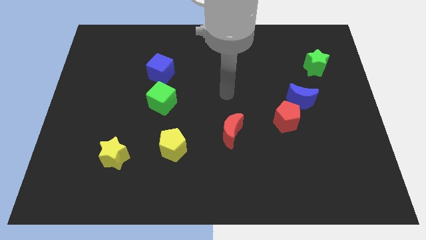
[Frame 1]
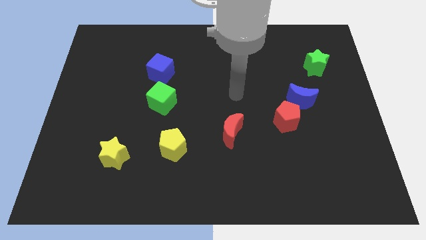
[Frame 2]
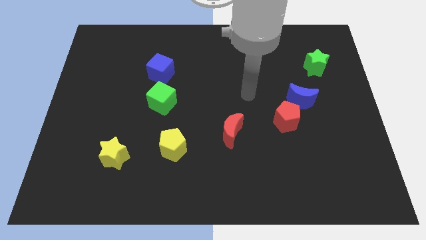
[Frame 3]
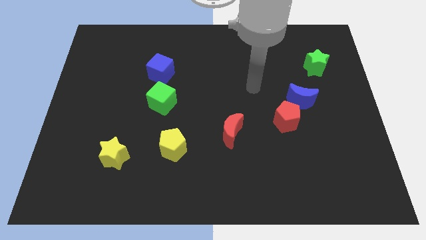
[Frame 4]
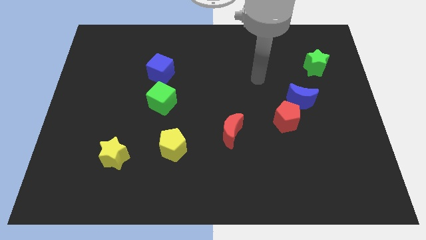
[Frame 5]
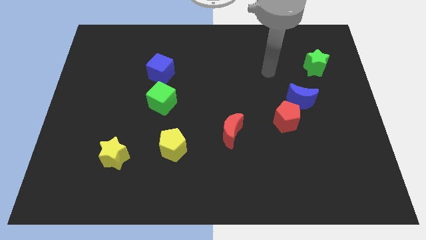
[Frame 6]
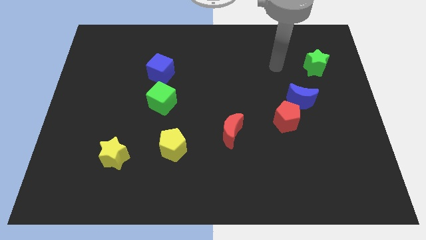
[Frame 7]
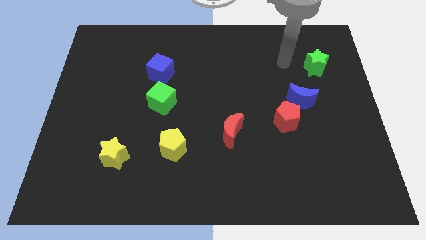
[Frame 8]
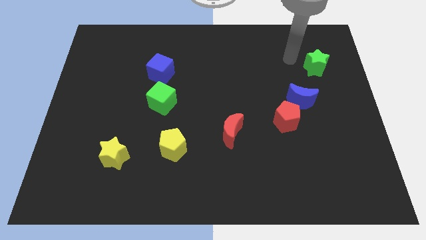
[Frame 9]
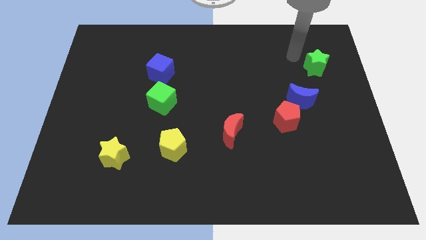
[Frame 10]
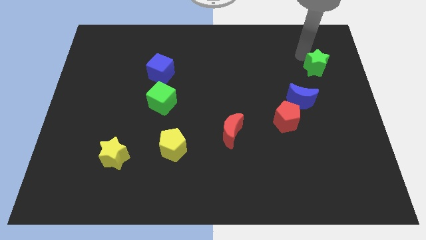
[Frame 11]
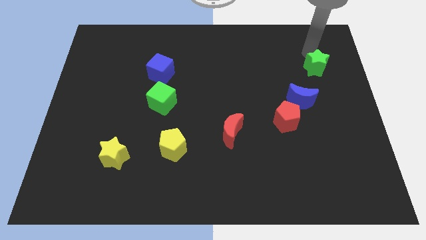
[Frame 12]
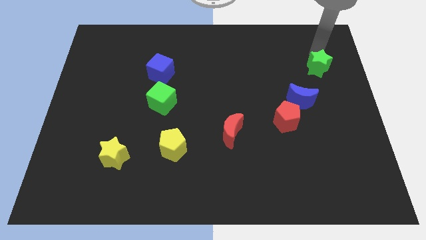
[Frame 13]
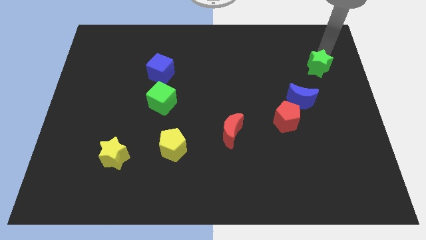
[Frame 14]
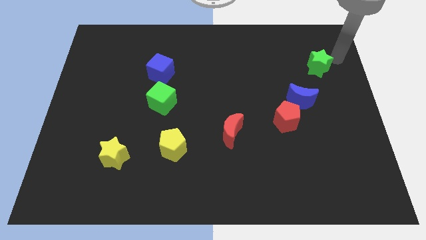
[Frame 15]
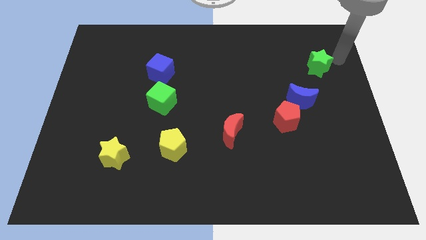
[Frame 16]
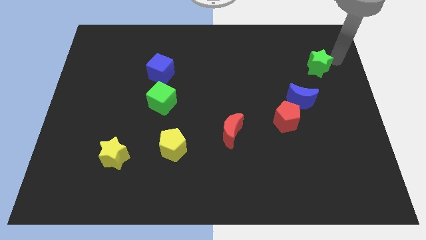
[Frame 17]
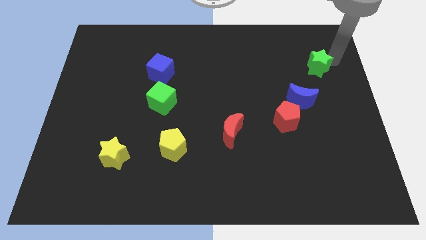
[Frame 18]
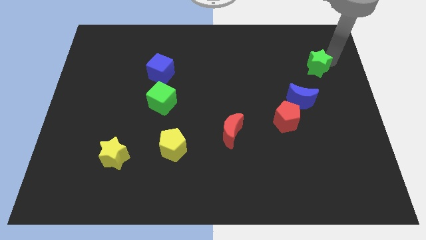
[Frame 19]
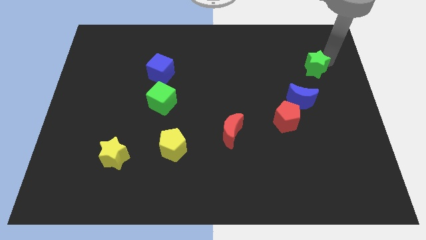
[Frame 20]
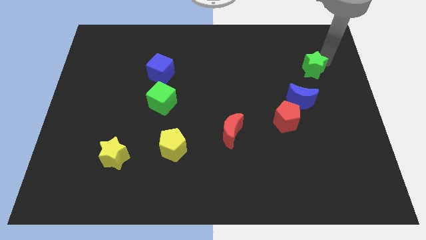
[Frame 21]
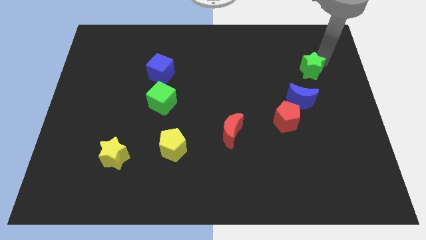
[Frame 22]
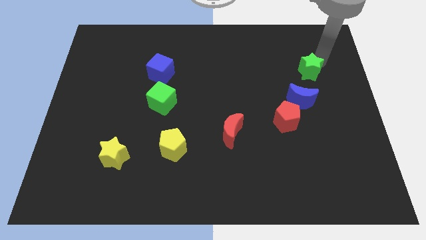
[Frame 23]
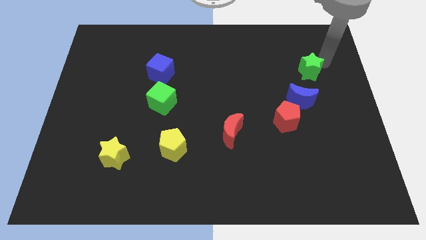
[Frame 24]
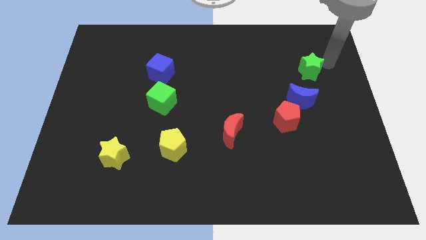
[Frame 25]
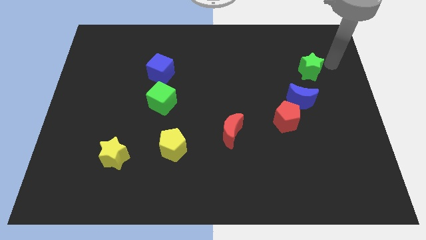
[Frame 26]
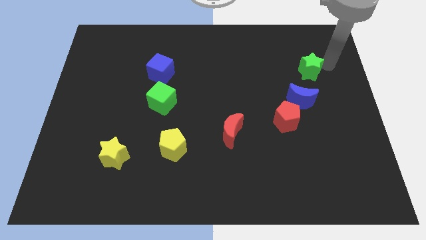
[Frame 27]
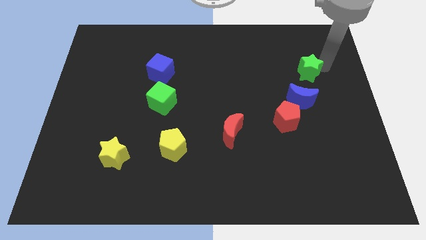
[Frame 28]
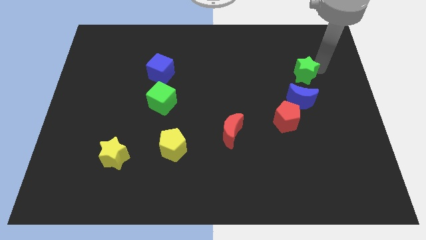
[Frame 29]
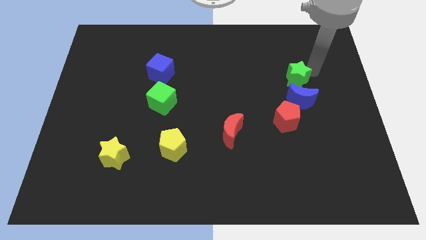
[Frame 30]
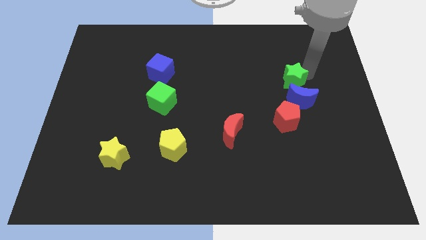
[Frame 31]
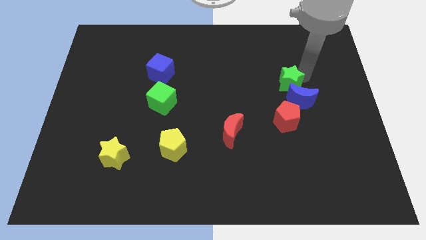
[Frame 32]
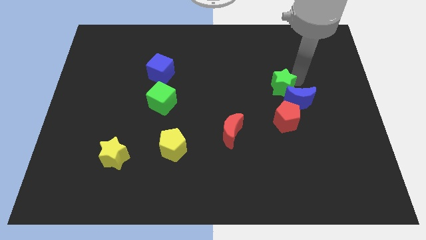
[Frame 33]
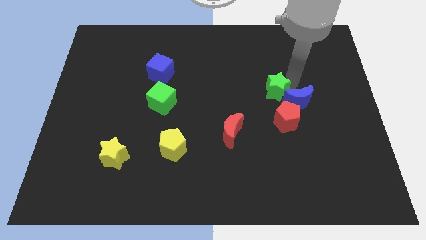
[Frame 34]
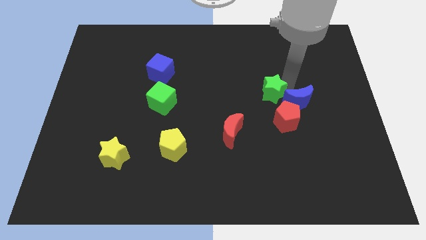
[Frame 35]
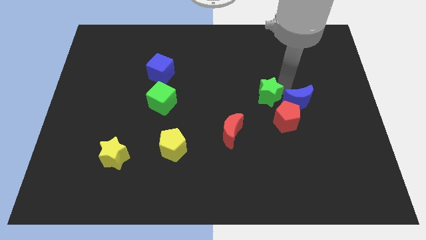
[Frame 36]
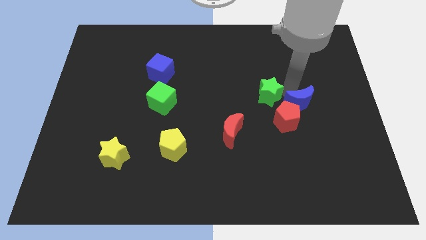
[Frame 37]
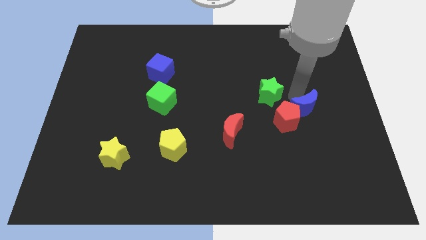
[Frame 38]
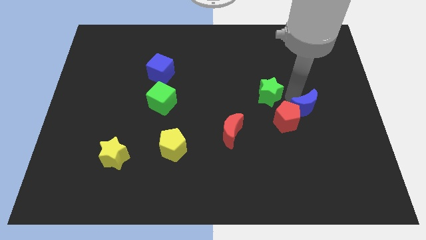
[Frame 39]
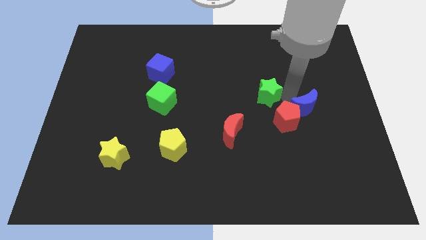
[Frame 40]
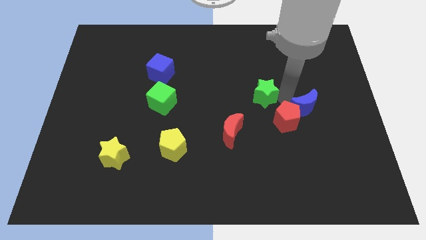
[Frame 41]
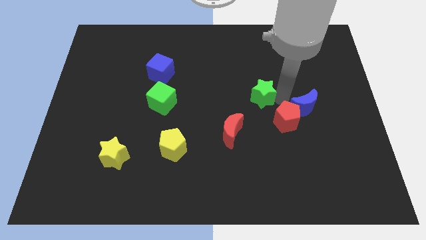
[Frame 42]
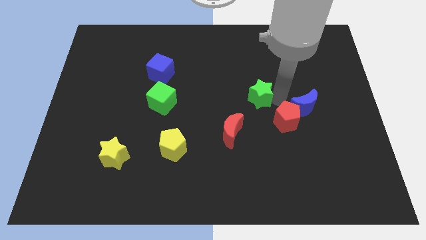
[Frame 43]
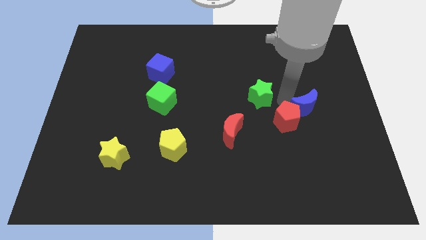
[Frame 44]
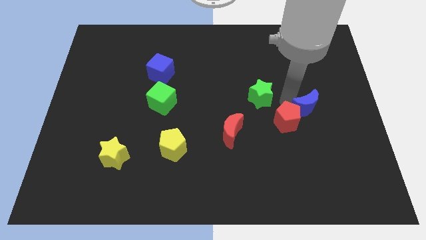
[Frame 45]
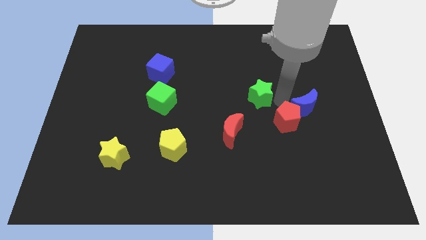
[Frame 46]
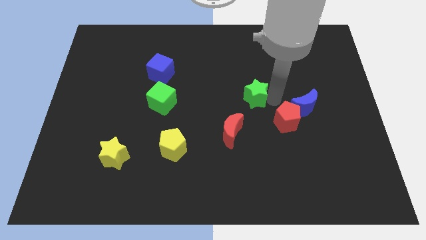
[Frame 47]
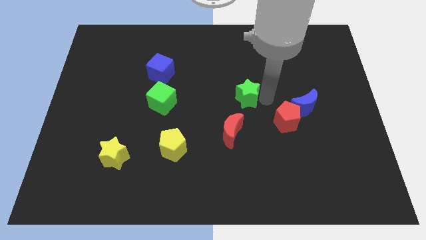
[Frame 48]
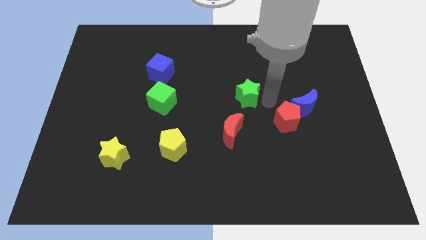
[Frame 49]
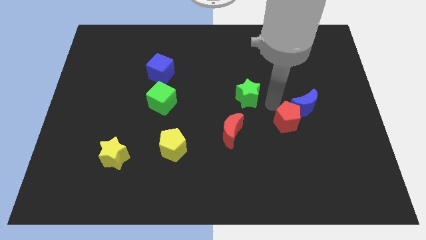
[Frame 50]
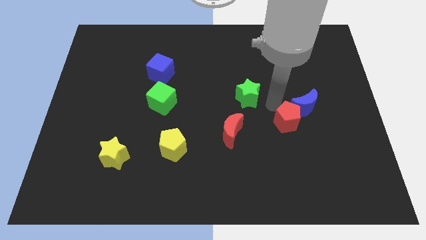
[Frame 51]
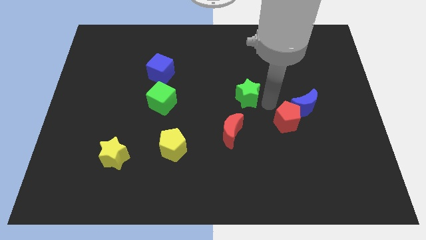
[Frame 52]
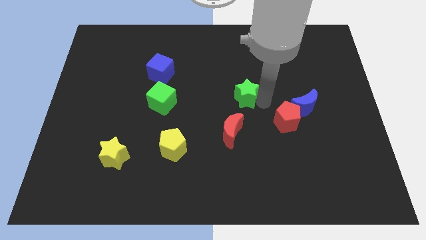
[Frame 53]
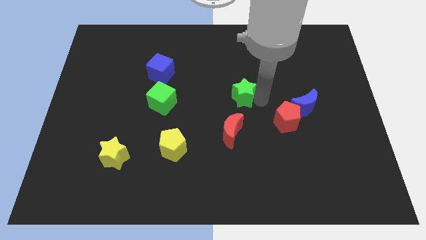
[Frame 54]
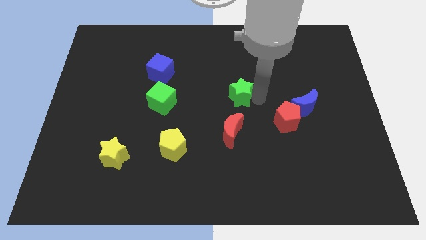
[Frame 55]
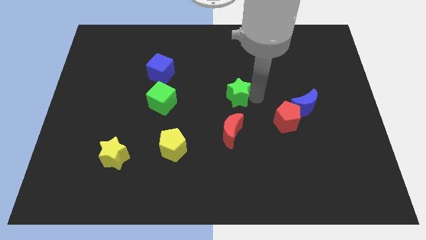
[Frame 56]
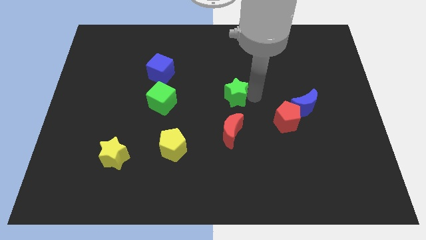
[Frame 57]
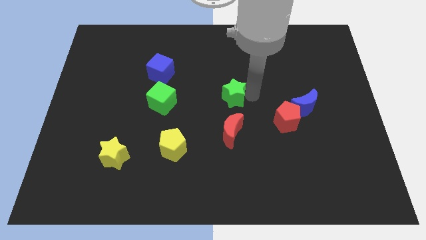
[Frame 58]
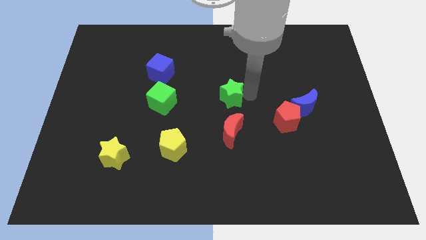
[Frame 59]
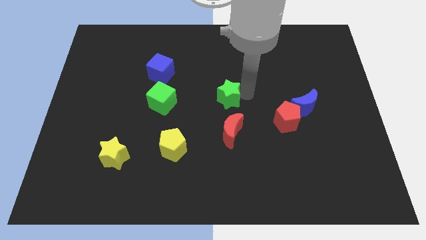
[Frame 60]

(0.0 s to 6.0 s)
push the green star right of the green cube

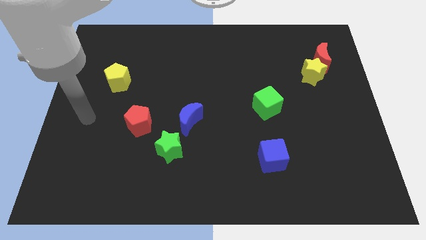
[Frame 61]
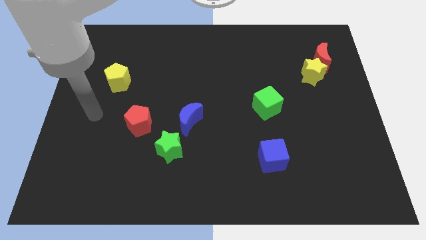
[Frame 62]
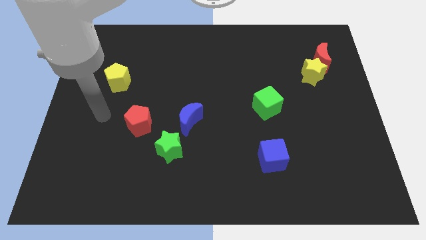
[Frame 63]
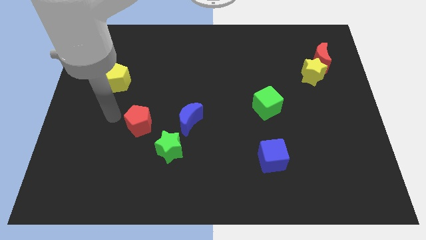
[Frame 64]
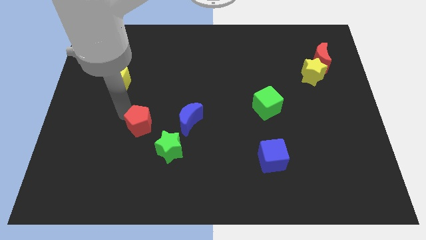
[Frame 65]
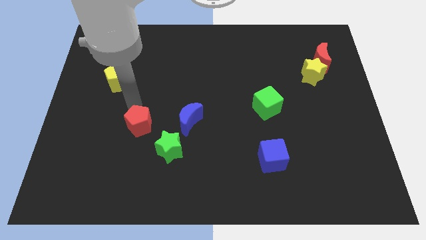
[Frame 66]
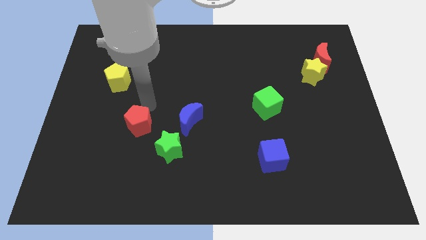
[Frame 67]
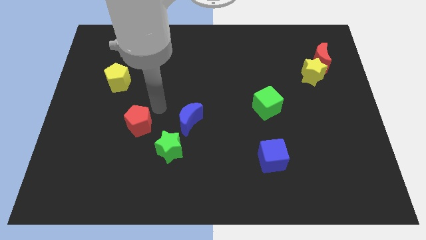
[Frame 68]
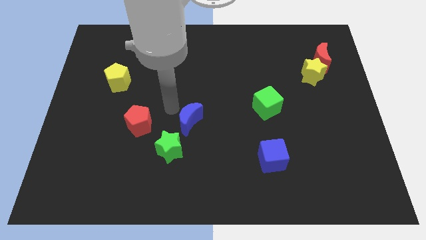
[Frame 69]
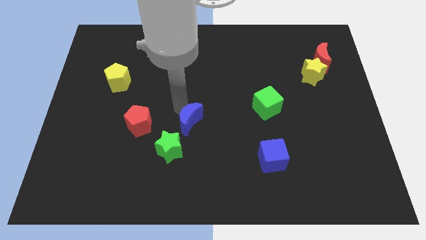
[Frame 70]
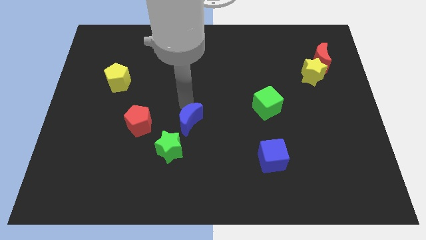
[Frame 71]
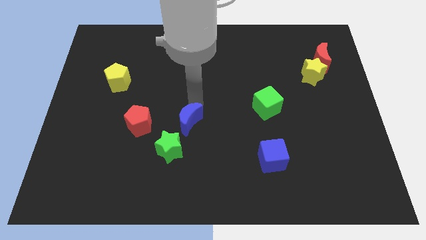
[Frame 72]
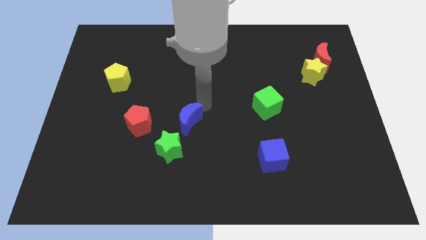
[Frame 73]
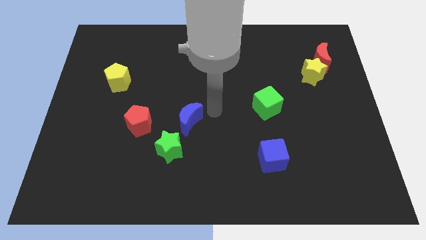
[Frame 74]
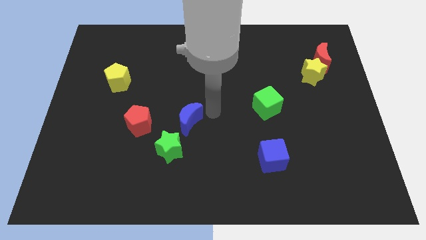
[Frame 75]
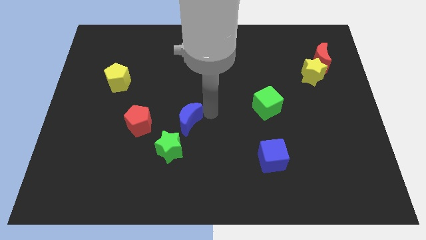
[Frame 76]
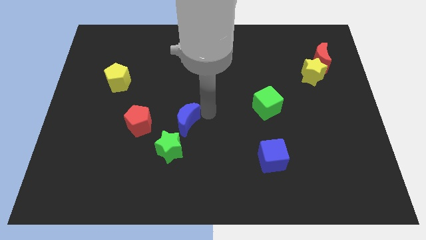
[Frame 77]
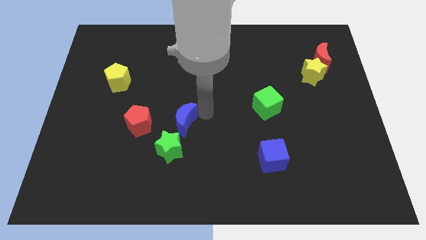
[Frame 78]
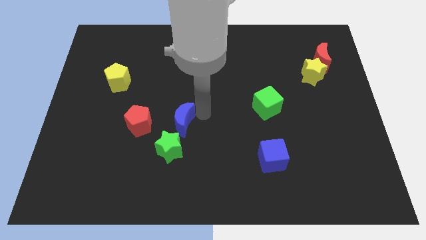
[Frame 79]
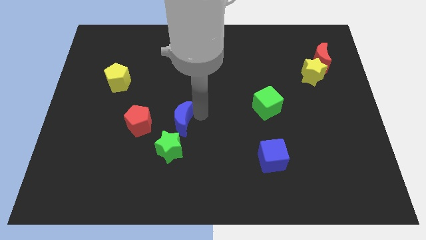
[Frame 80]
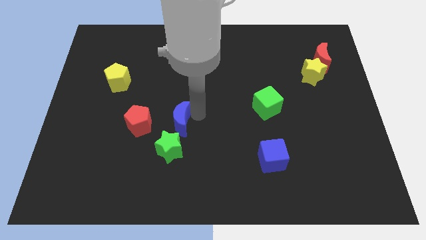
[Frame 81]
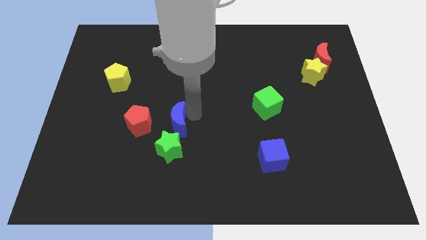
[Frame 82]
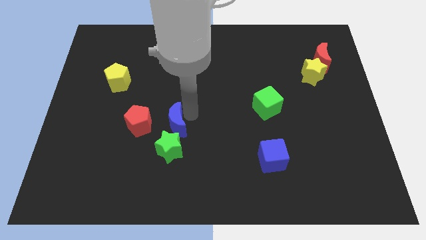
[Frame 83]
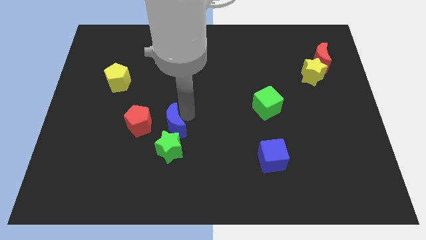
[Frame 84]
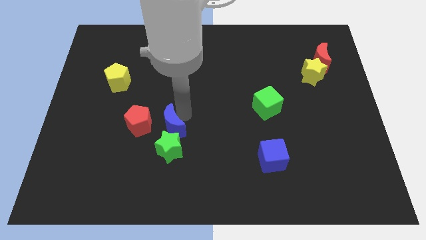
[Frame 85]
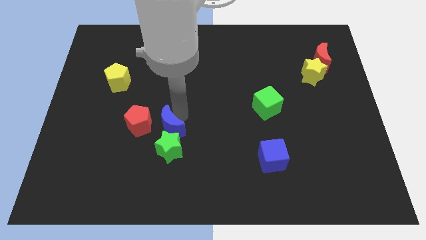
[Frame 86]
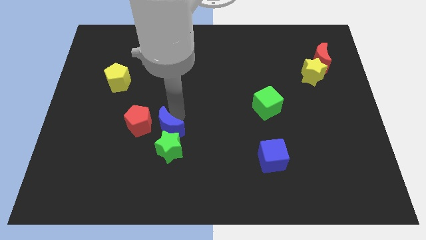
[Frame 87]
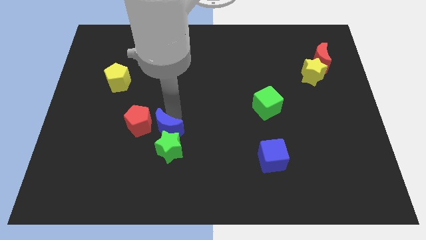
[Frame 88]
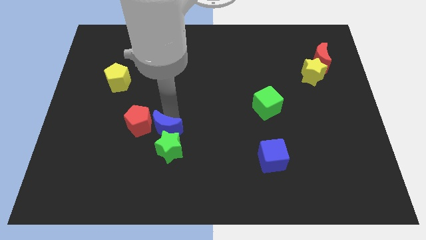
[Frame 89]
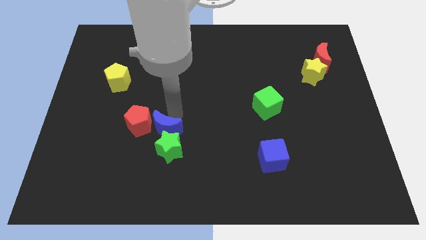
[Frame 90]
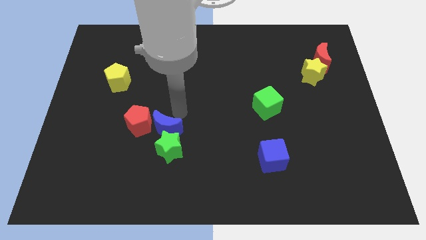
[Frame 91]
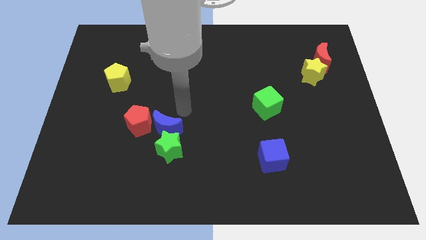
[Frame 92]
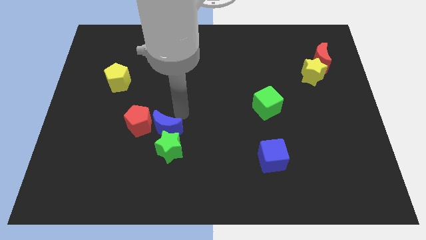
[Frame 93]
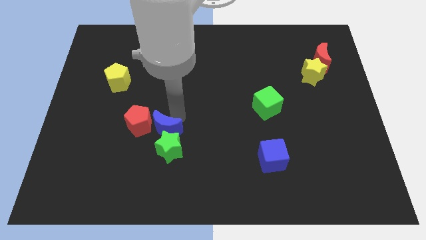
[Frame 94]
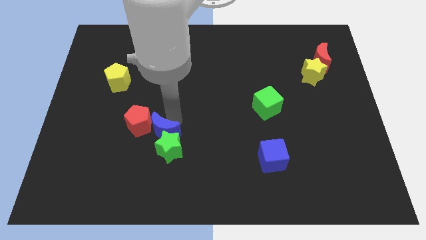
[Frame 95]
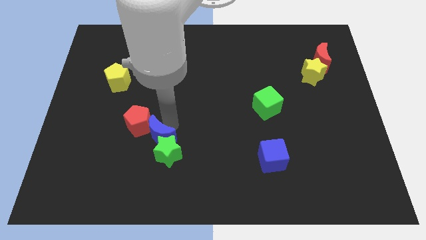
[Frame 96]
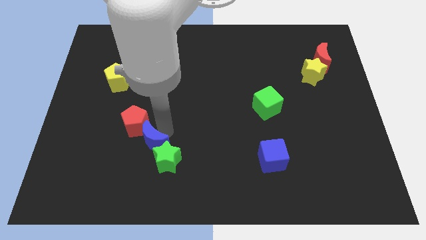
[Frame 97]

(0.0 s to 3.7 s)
move the blue moon to the bottom side of the red pentagon
